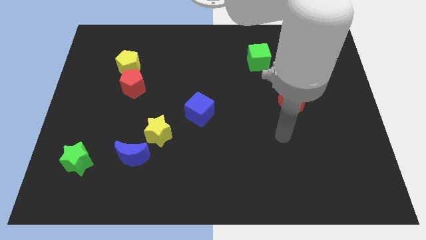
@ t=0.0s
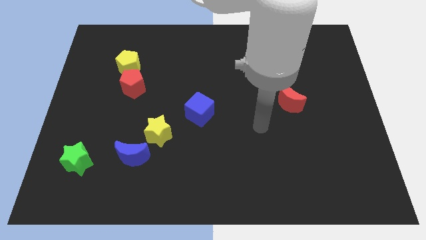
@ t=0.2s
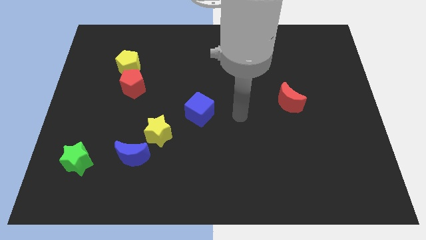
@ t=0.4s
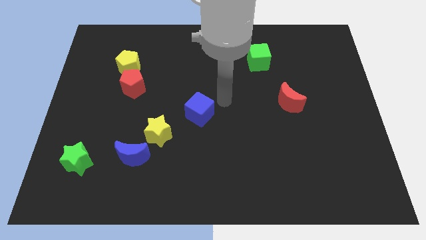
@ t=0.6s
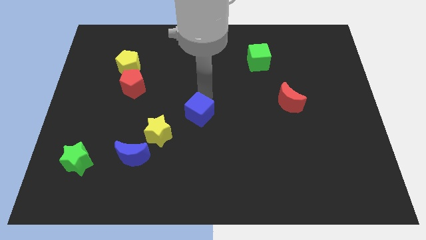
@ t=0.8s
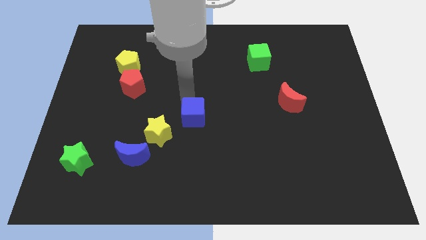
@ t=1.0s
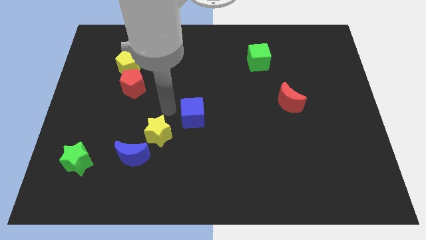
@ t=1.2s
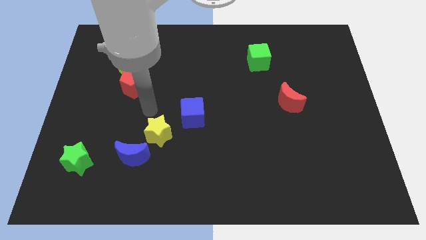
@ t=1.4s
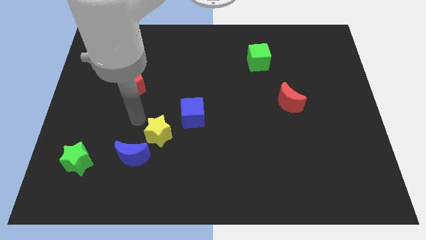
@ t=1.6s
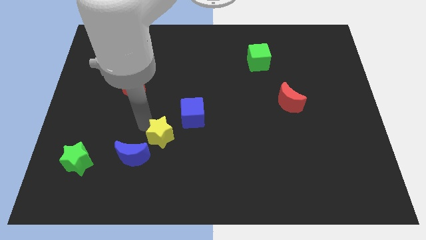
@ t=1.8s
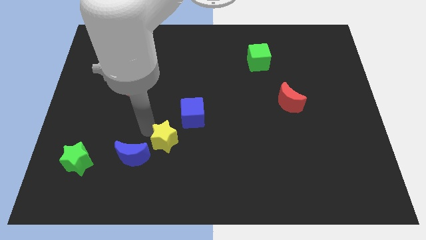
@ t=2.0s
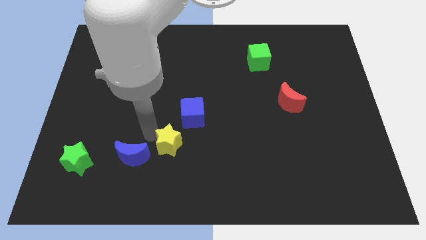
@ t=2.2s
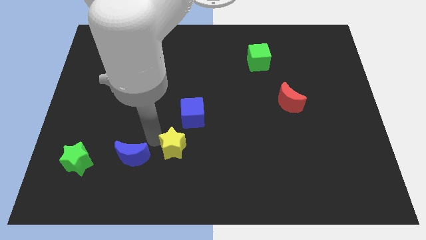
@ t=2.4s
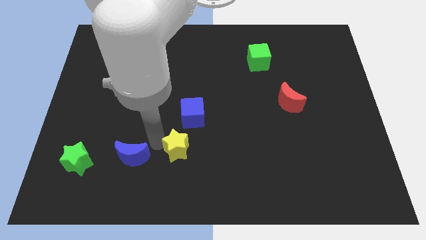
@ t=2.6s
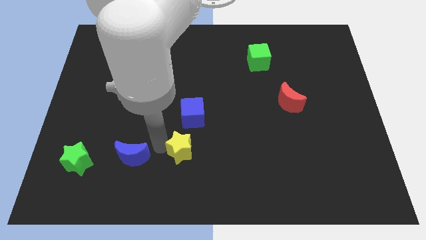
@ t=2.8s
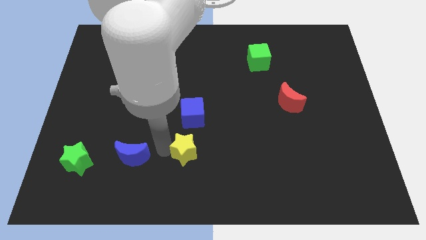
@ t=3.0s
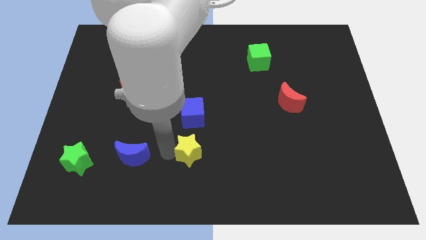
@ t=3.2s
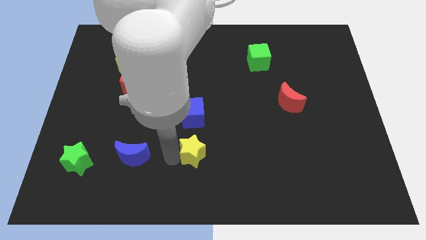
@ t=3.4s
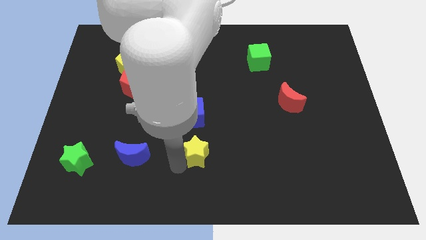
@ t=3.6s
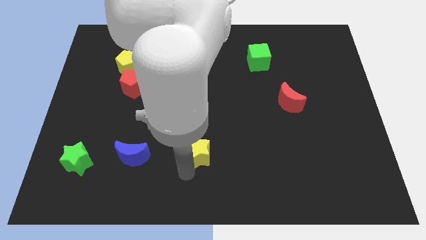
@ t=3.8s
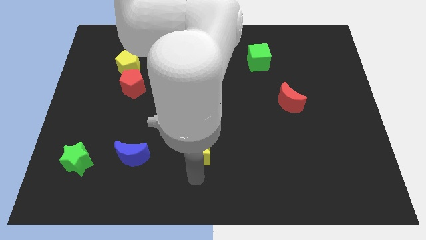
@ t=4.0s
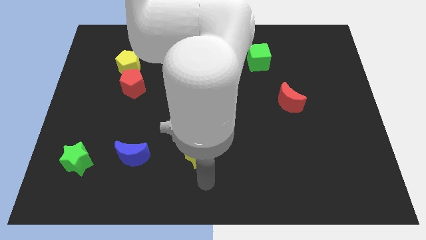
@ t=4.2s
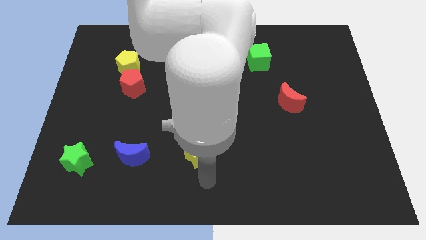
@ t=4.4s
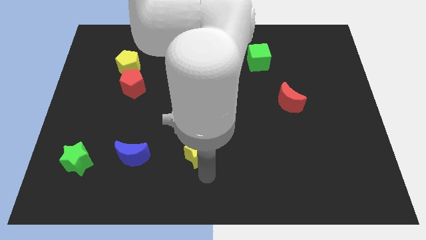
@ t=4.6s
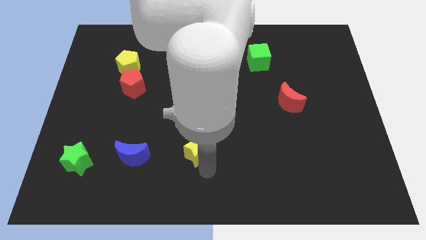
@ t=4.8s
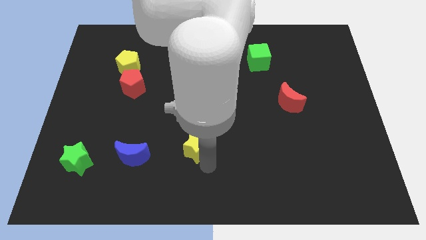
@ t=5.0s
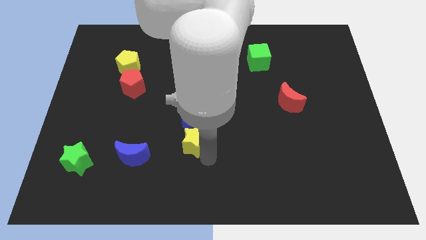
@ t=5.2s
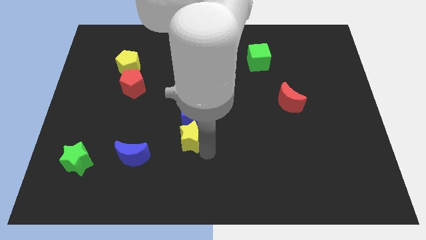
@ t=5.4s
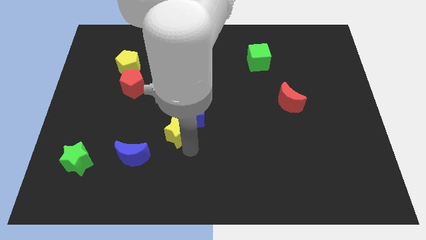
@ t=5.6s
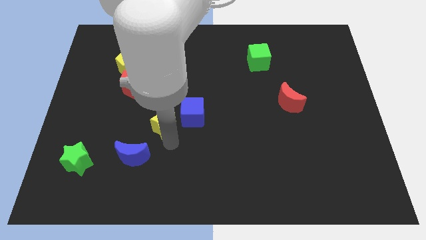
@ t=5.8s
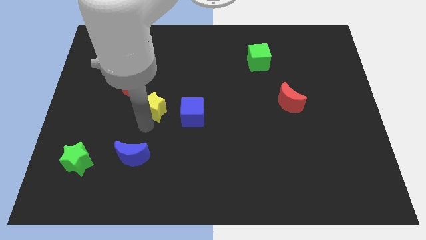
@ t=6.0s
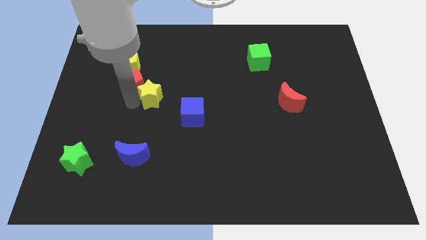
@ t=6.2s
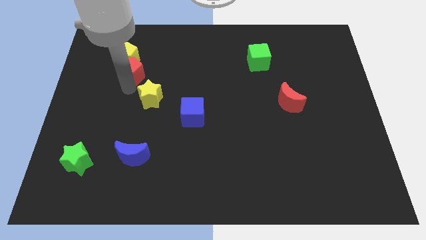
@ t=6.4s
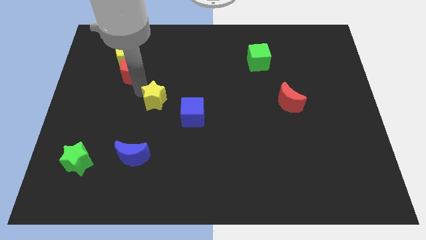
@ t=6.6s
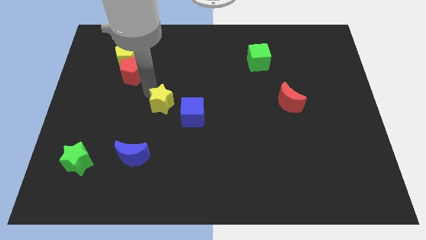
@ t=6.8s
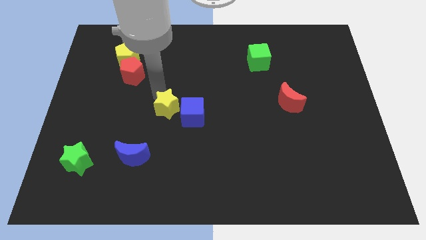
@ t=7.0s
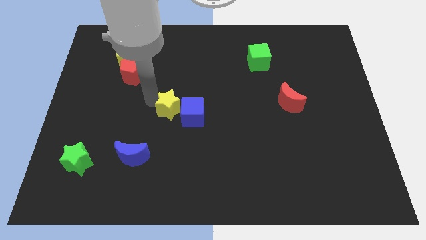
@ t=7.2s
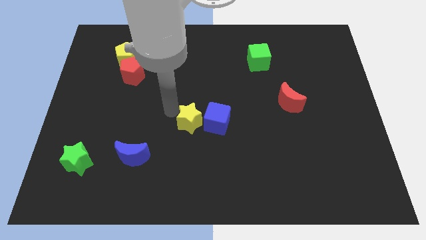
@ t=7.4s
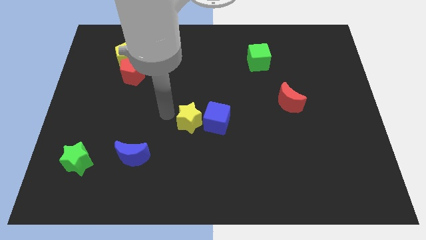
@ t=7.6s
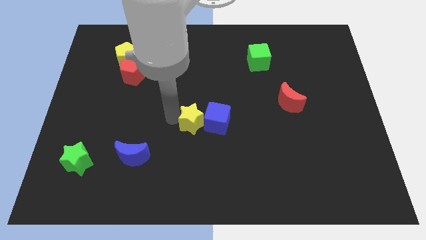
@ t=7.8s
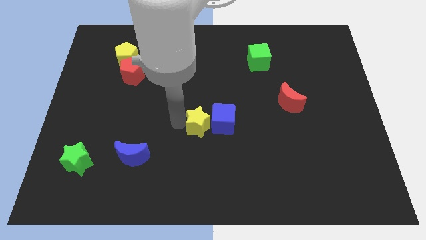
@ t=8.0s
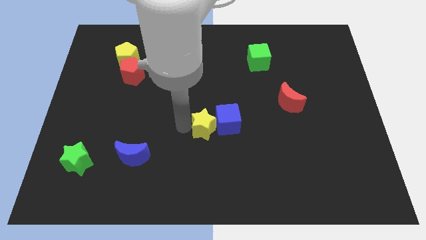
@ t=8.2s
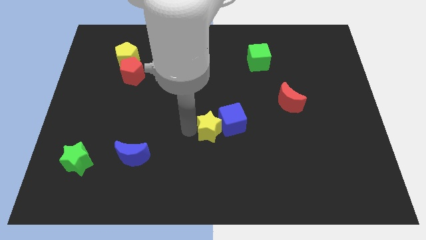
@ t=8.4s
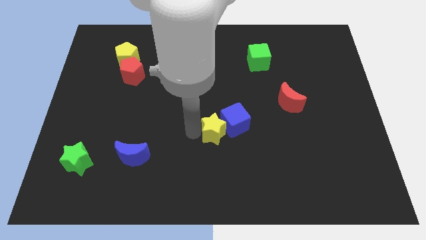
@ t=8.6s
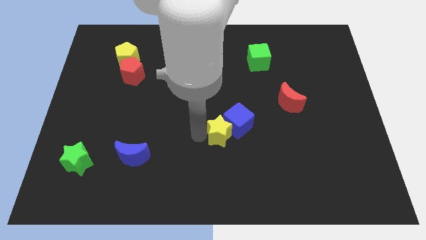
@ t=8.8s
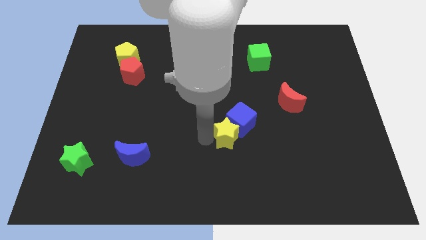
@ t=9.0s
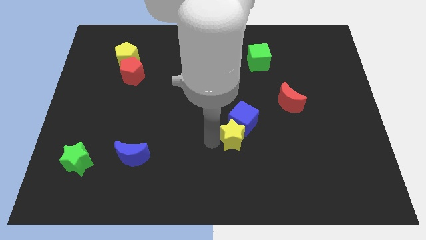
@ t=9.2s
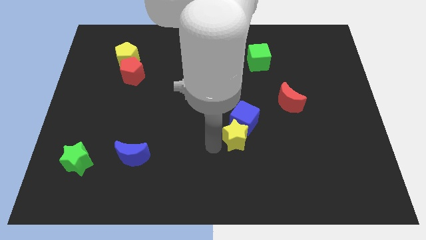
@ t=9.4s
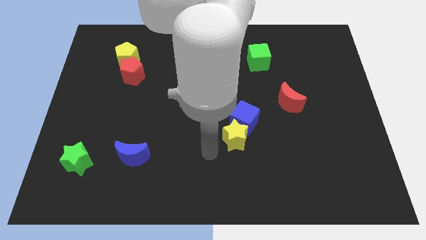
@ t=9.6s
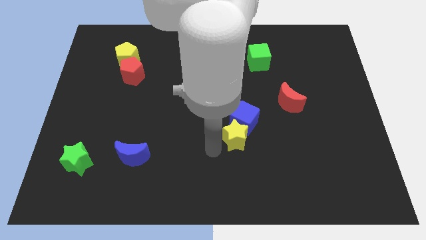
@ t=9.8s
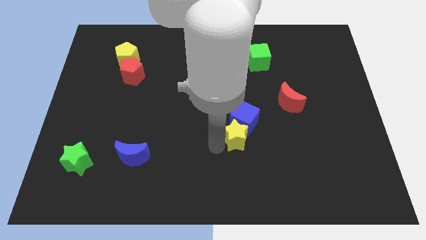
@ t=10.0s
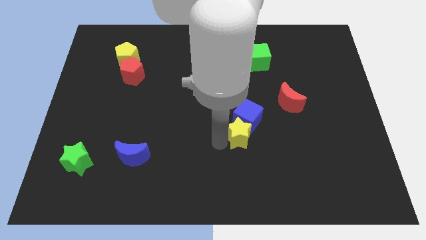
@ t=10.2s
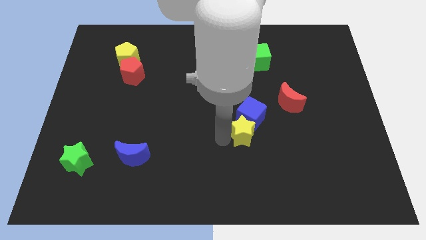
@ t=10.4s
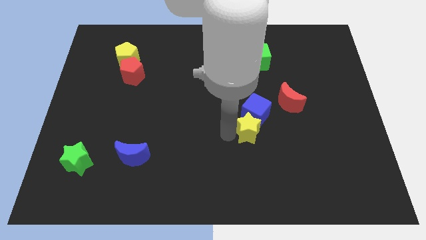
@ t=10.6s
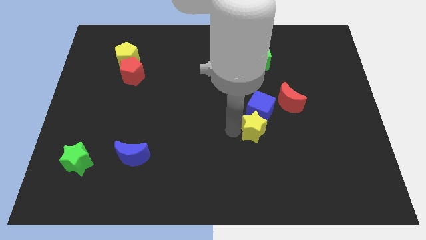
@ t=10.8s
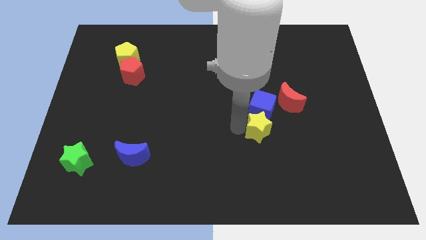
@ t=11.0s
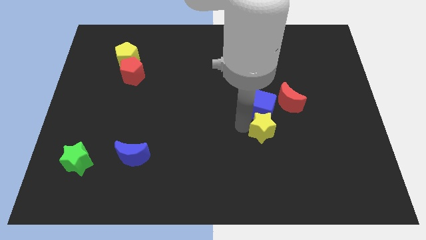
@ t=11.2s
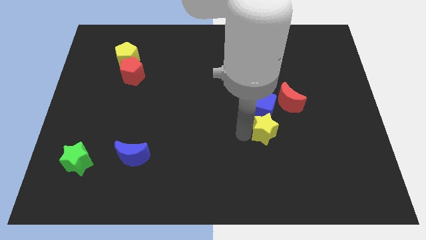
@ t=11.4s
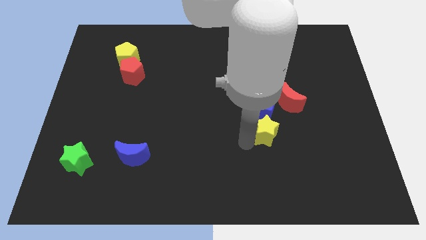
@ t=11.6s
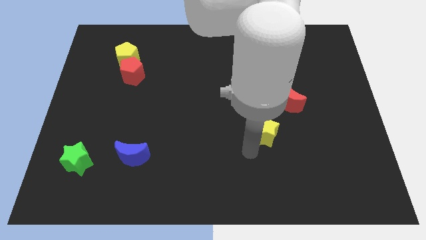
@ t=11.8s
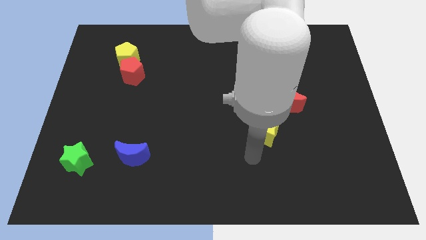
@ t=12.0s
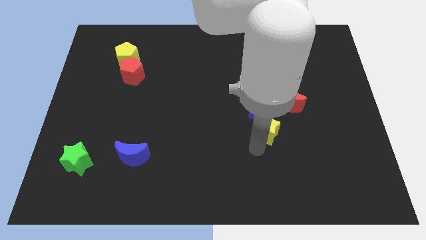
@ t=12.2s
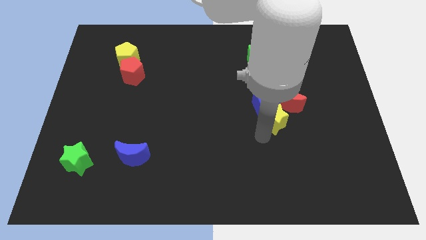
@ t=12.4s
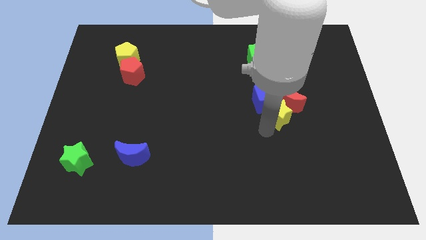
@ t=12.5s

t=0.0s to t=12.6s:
push the yellow star close to the red moon

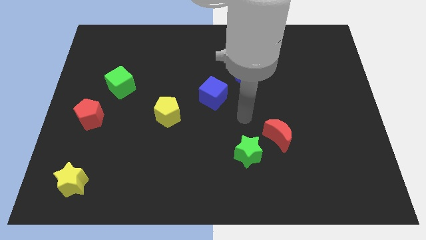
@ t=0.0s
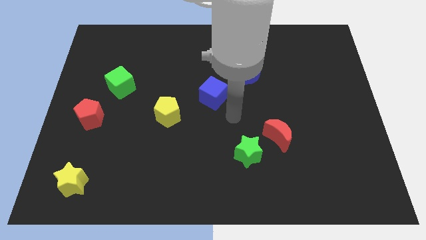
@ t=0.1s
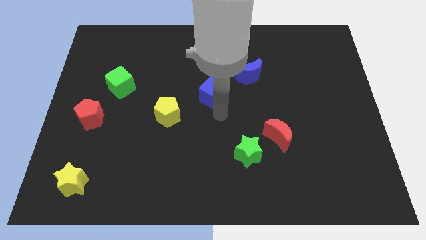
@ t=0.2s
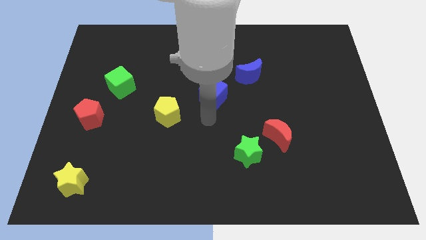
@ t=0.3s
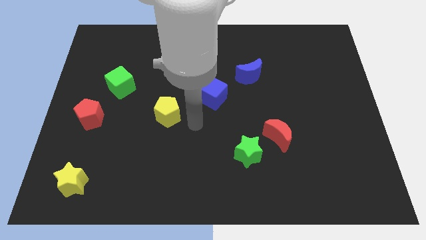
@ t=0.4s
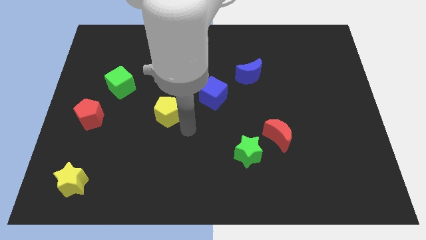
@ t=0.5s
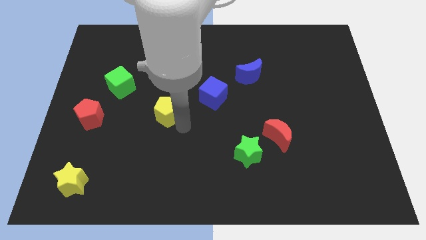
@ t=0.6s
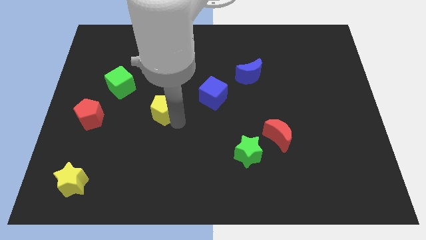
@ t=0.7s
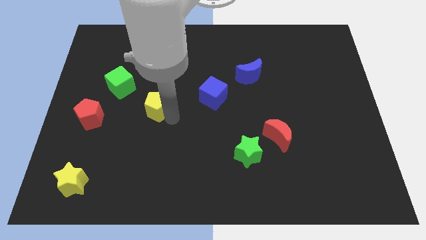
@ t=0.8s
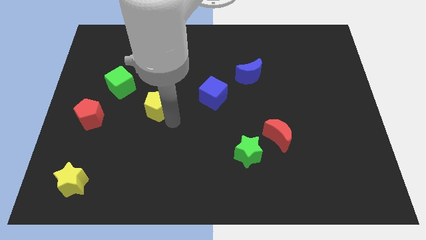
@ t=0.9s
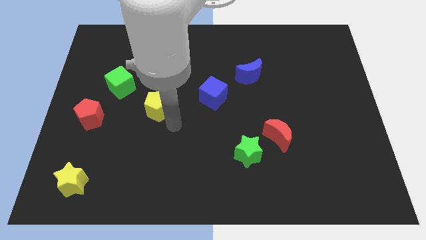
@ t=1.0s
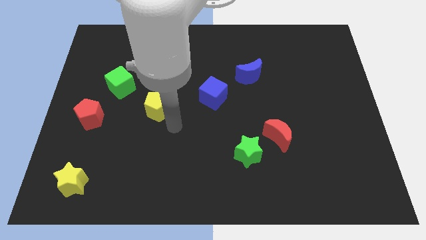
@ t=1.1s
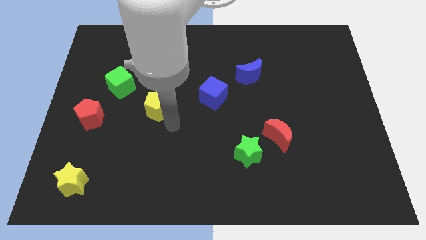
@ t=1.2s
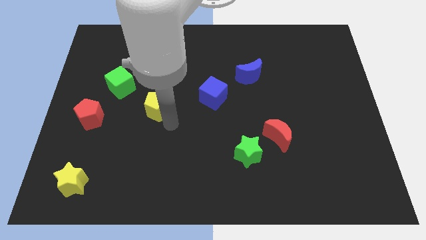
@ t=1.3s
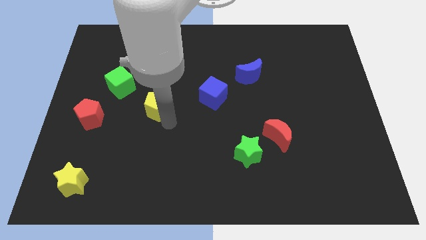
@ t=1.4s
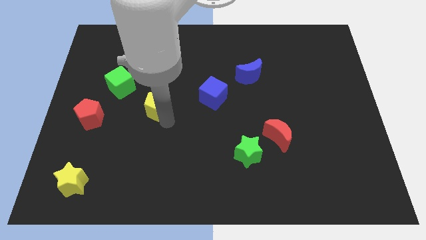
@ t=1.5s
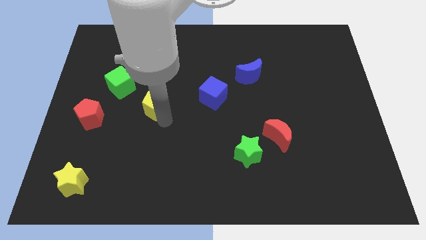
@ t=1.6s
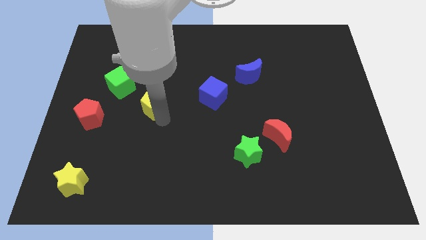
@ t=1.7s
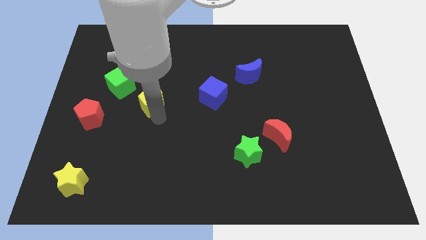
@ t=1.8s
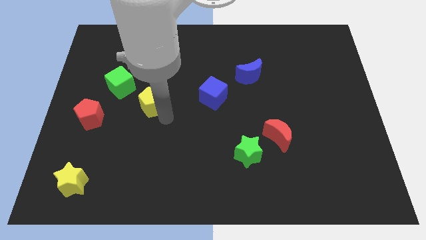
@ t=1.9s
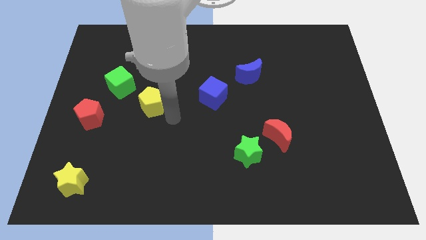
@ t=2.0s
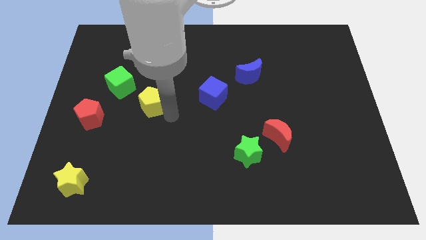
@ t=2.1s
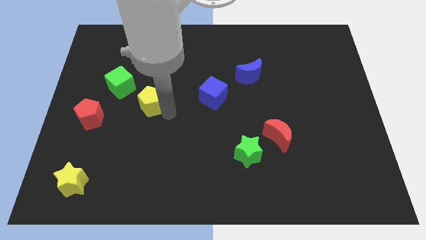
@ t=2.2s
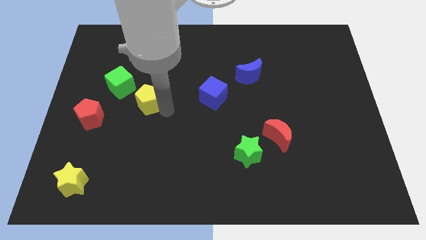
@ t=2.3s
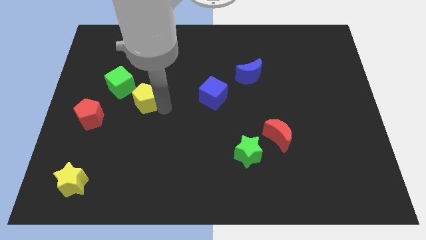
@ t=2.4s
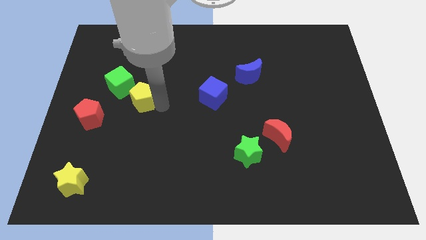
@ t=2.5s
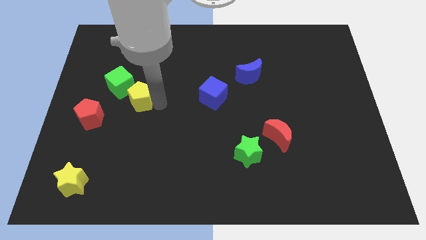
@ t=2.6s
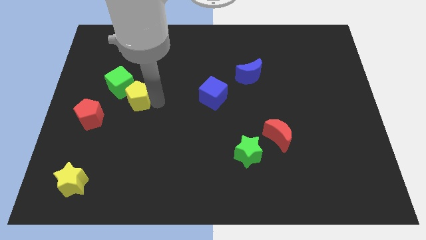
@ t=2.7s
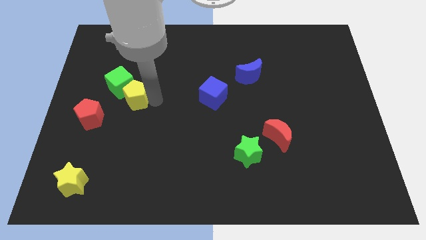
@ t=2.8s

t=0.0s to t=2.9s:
slide the yellow pentagon next to the green cube
